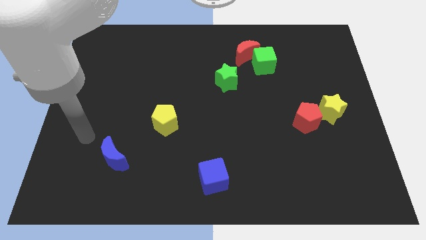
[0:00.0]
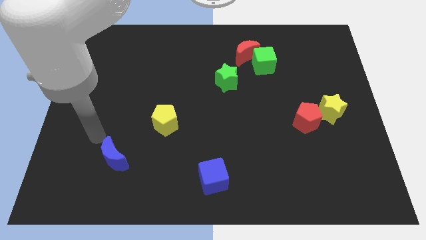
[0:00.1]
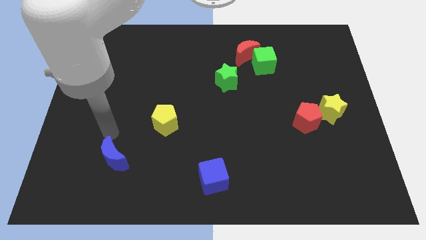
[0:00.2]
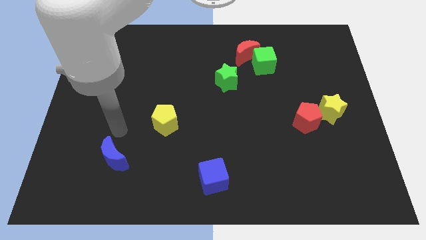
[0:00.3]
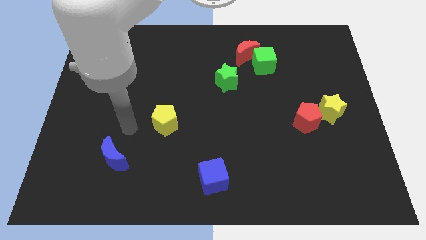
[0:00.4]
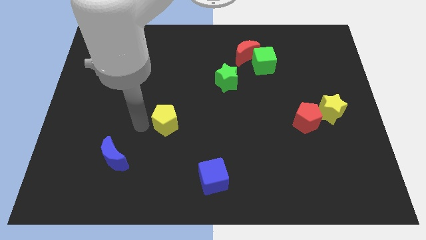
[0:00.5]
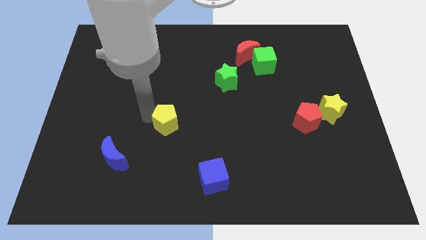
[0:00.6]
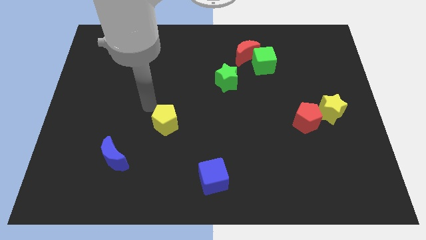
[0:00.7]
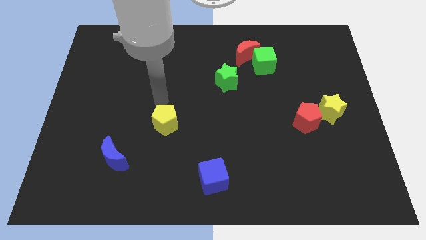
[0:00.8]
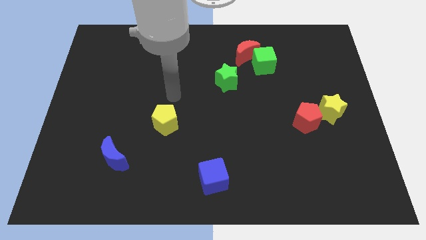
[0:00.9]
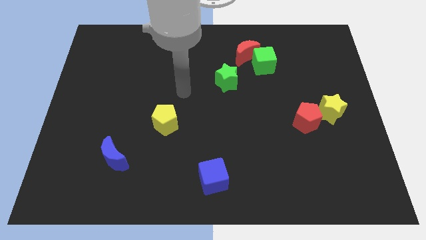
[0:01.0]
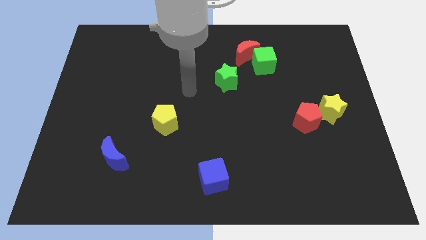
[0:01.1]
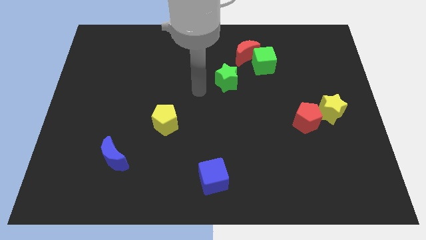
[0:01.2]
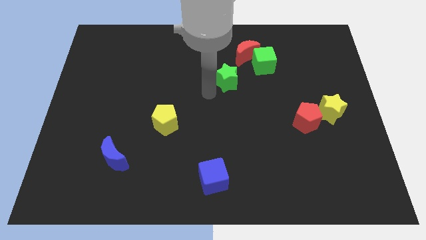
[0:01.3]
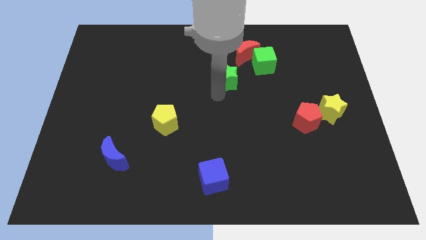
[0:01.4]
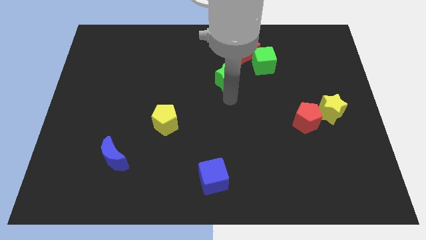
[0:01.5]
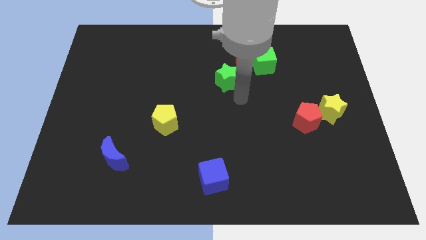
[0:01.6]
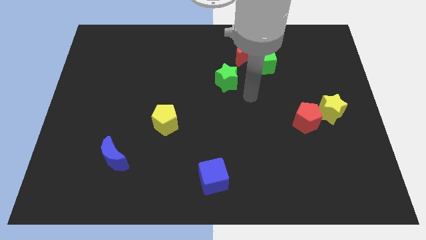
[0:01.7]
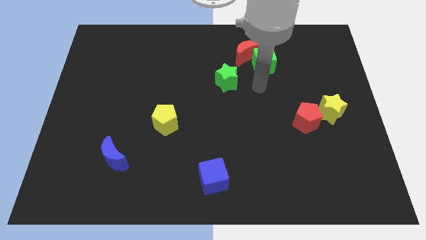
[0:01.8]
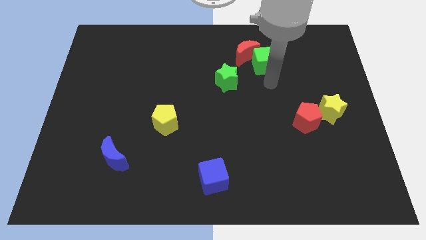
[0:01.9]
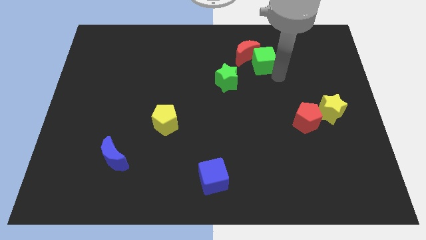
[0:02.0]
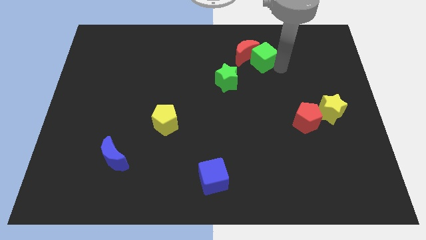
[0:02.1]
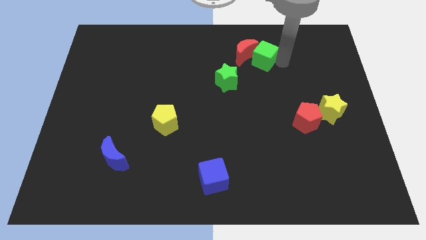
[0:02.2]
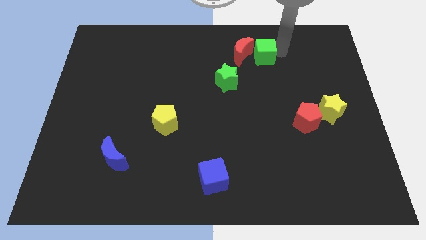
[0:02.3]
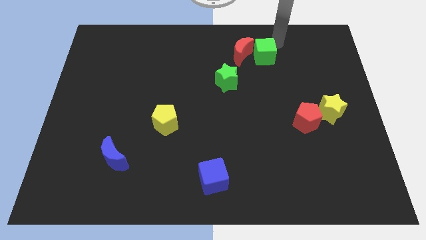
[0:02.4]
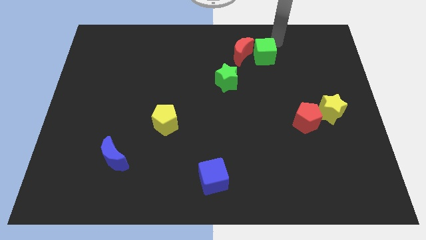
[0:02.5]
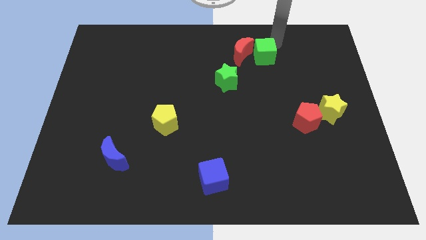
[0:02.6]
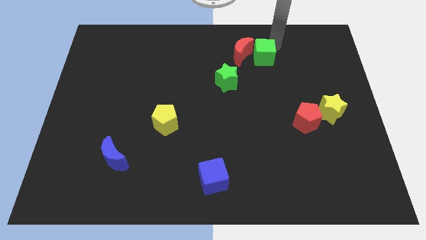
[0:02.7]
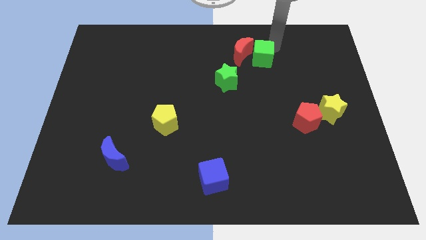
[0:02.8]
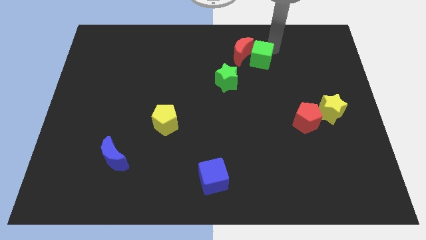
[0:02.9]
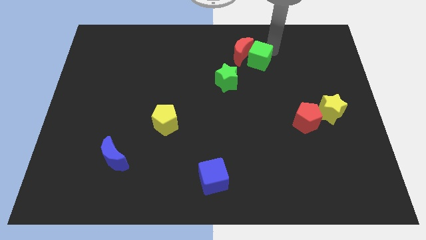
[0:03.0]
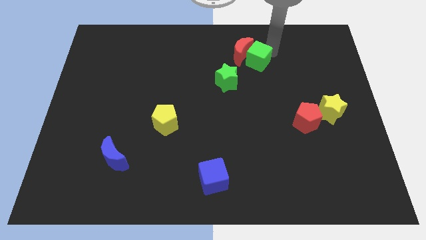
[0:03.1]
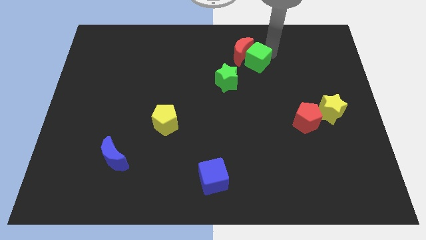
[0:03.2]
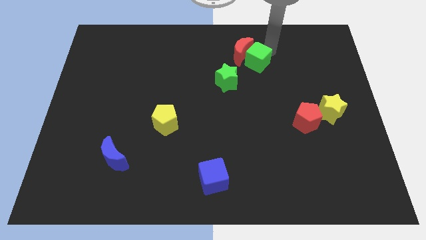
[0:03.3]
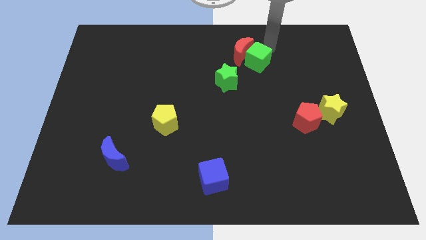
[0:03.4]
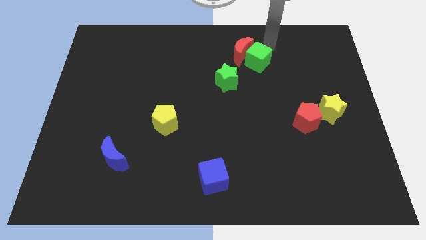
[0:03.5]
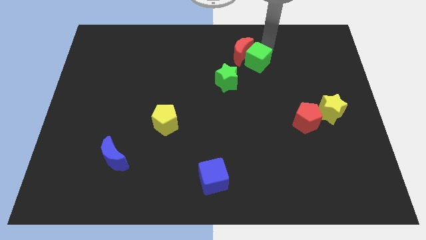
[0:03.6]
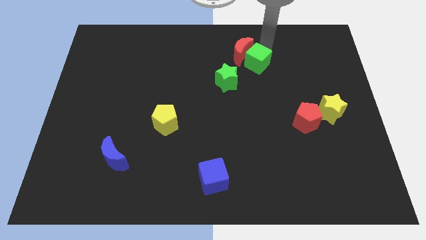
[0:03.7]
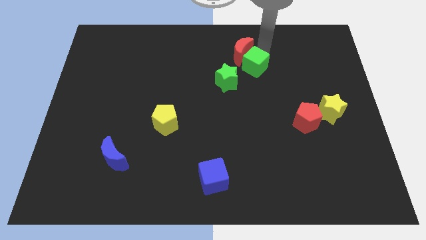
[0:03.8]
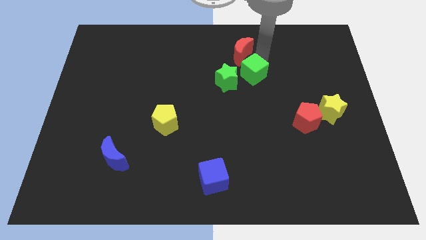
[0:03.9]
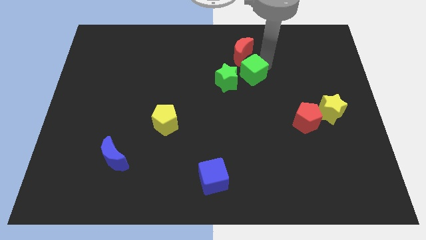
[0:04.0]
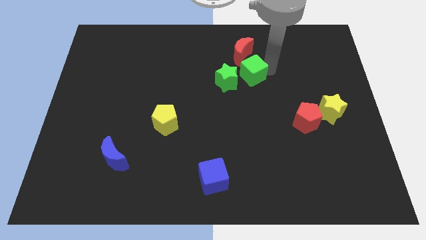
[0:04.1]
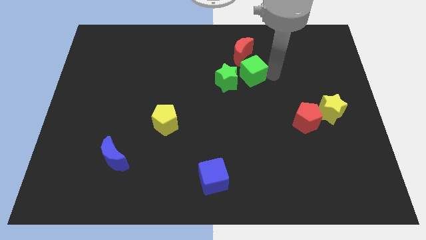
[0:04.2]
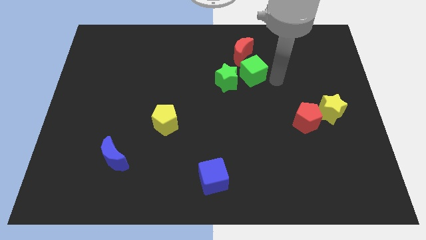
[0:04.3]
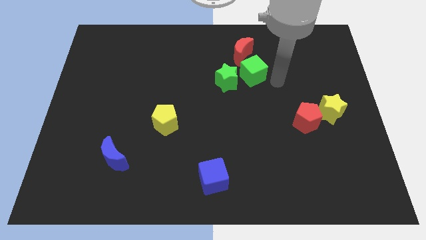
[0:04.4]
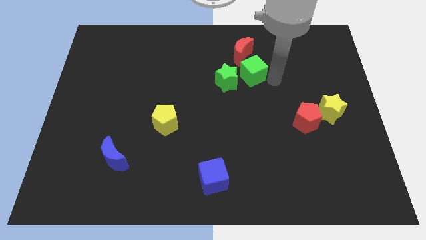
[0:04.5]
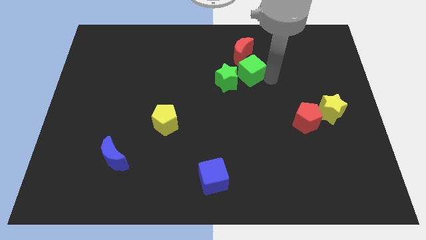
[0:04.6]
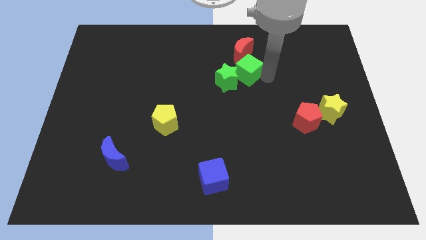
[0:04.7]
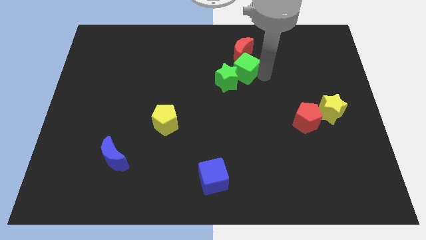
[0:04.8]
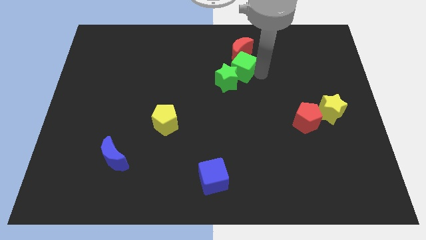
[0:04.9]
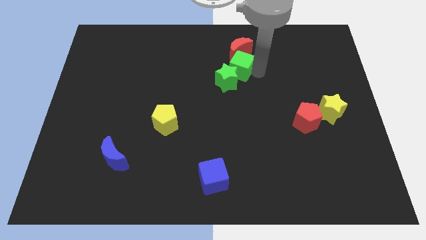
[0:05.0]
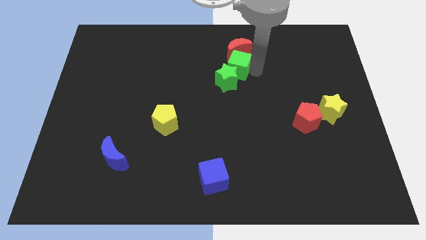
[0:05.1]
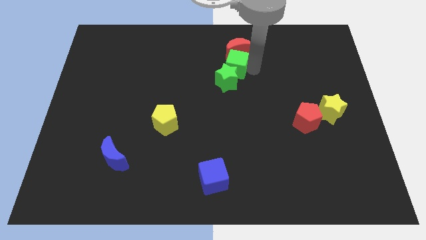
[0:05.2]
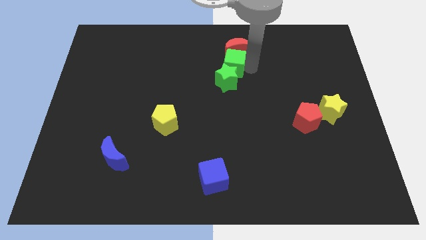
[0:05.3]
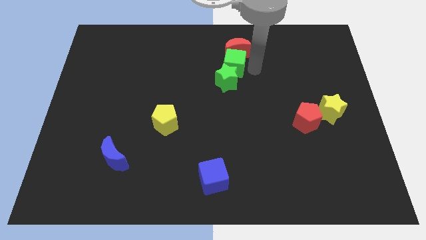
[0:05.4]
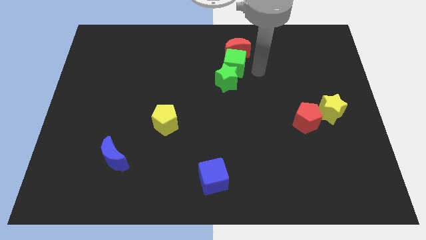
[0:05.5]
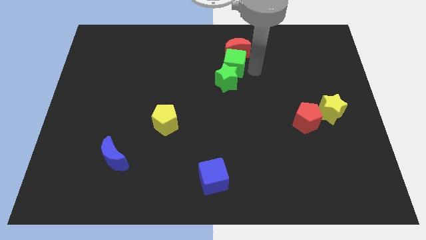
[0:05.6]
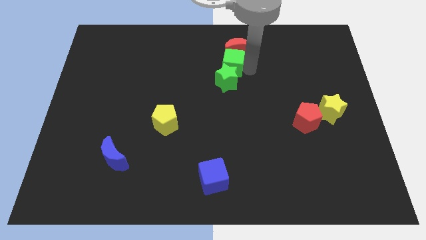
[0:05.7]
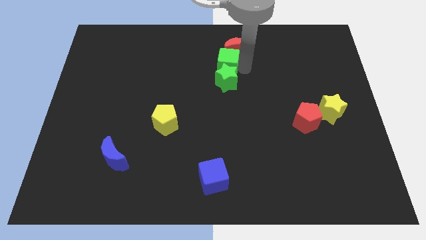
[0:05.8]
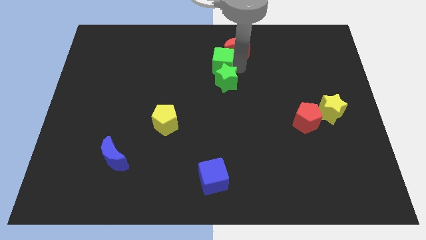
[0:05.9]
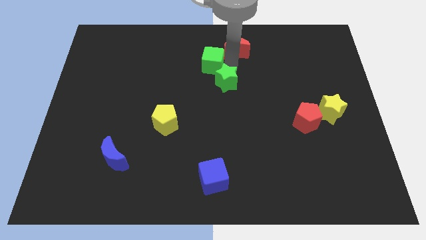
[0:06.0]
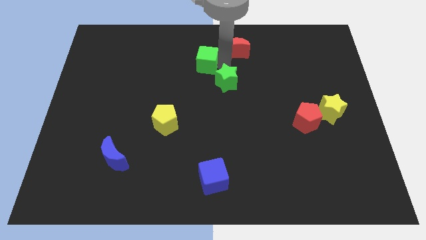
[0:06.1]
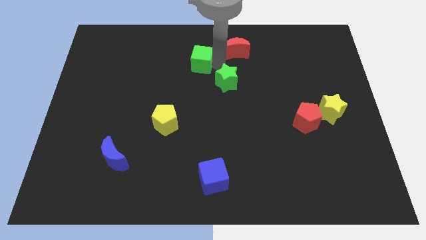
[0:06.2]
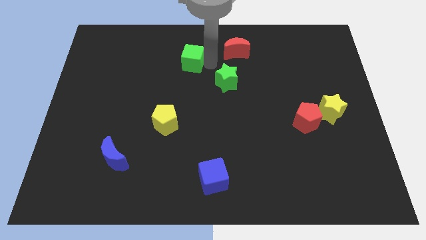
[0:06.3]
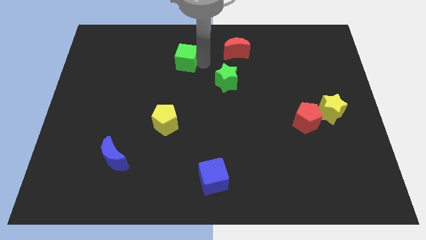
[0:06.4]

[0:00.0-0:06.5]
push the green cube to the left

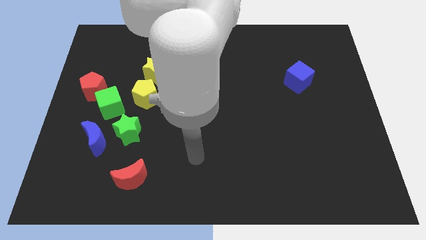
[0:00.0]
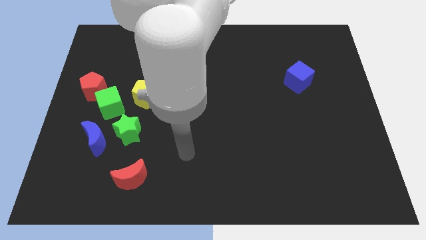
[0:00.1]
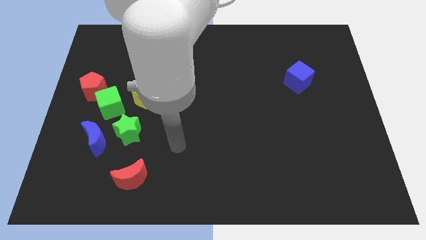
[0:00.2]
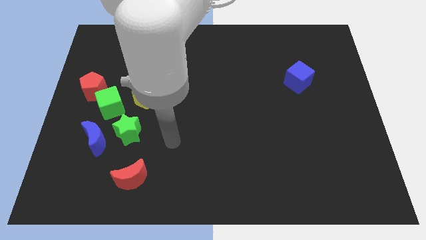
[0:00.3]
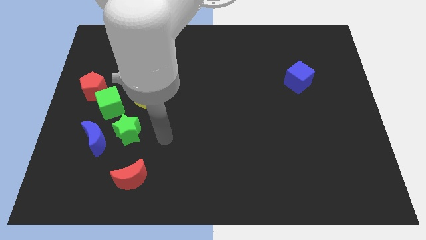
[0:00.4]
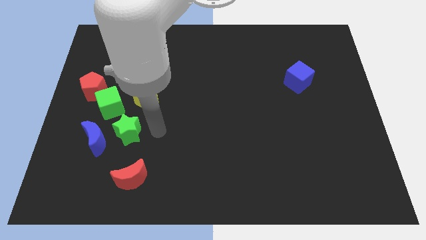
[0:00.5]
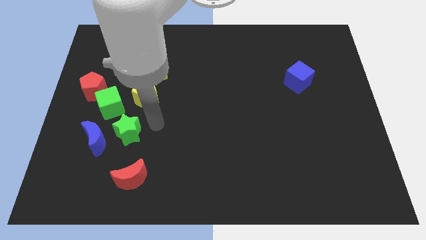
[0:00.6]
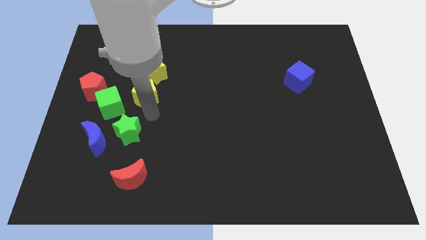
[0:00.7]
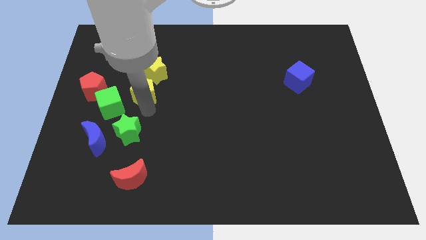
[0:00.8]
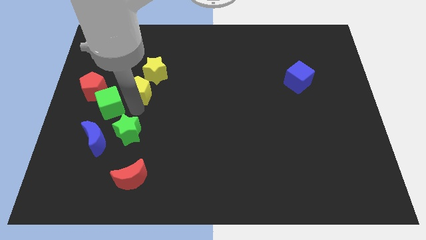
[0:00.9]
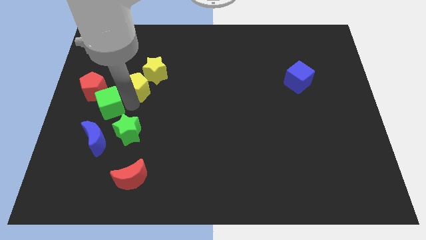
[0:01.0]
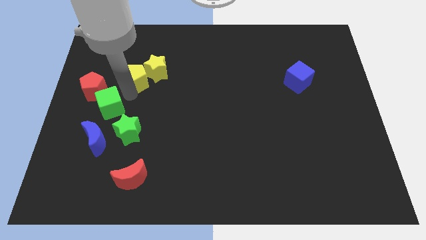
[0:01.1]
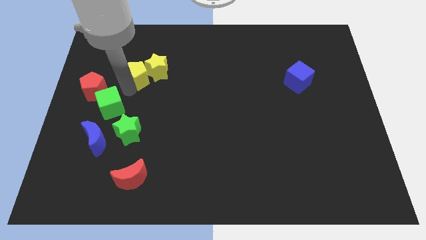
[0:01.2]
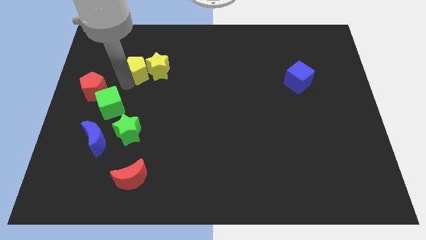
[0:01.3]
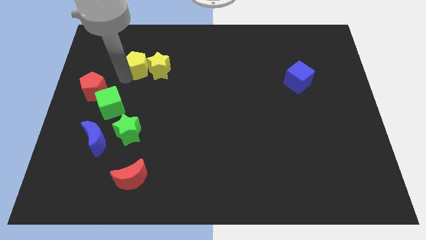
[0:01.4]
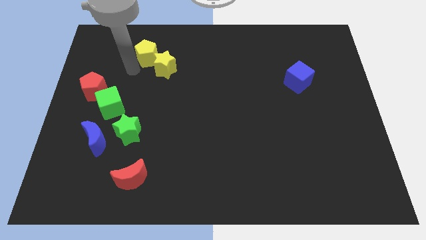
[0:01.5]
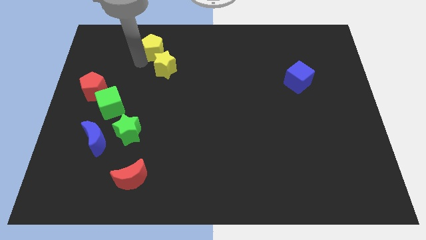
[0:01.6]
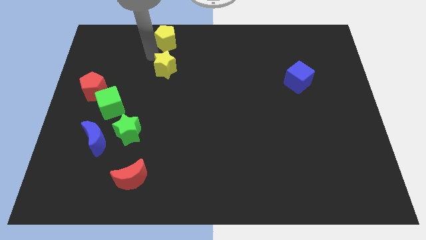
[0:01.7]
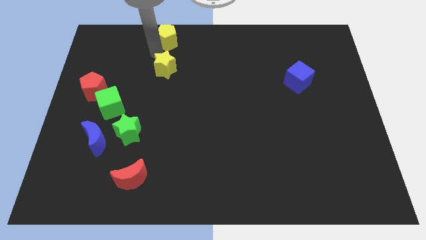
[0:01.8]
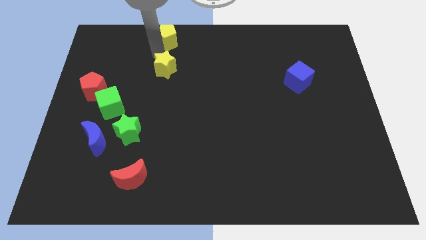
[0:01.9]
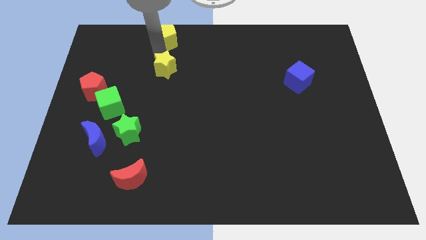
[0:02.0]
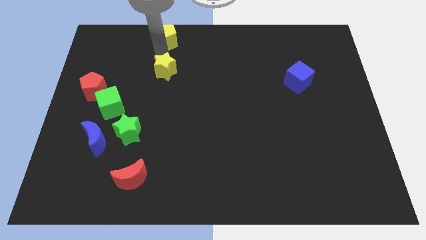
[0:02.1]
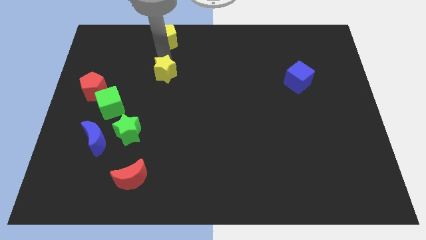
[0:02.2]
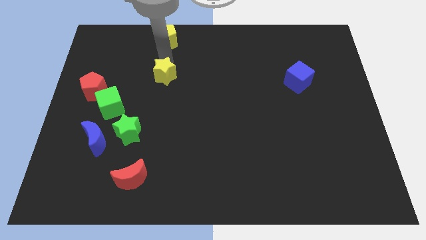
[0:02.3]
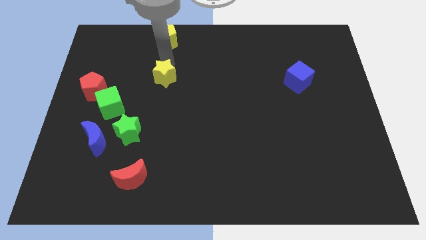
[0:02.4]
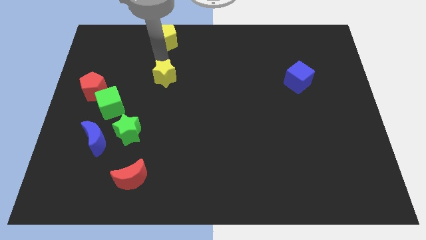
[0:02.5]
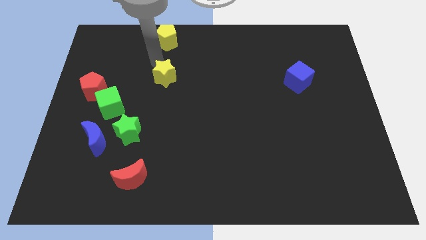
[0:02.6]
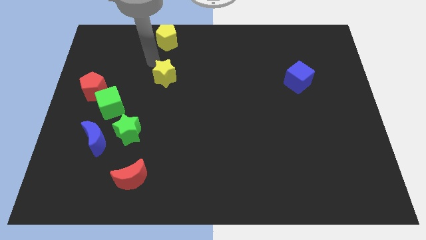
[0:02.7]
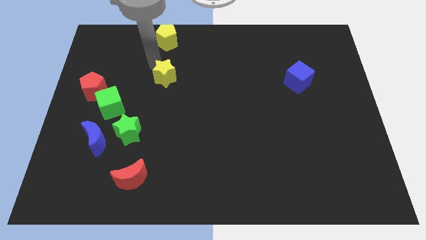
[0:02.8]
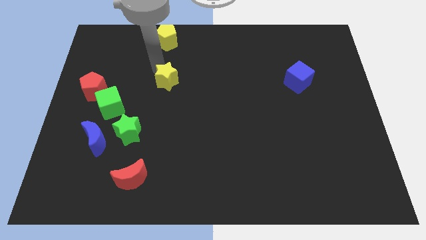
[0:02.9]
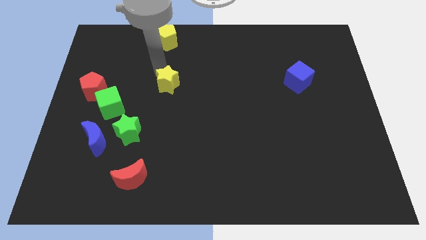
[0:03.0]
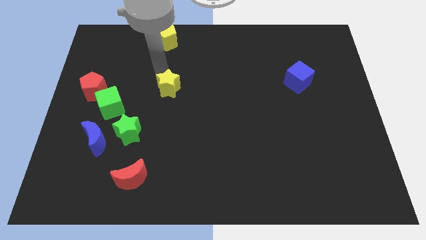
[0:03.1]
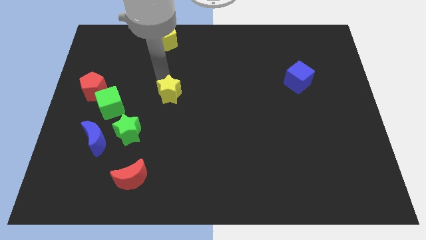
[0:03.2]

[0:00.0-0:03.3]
slide the yellow star a little bit down and right diagonally
